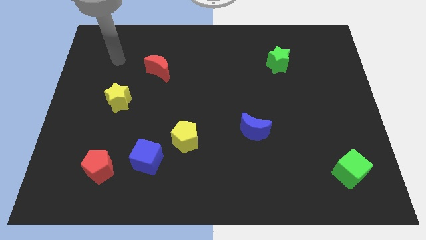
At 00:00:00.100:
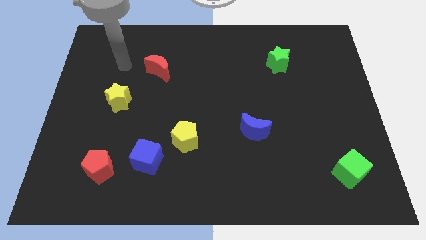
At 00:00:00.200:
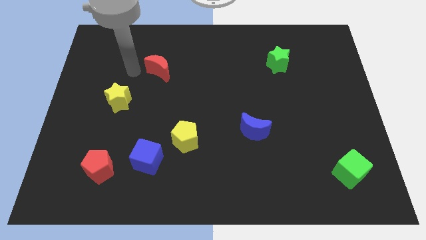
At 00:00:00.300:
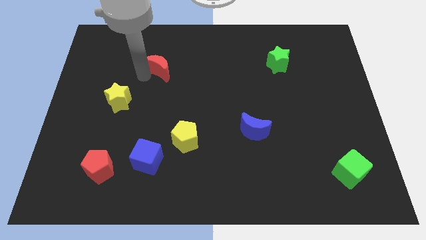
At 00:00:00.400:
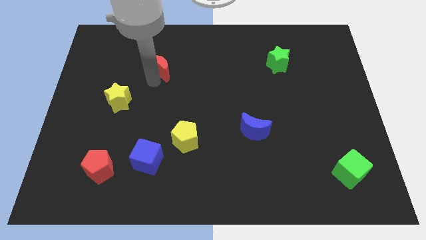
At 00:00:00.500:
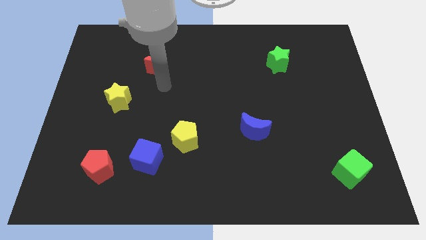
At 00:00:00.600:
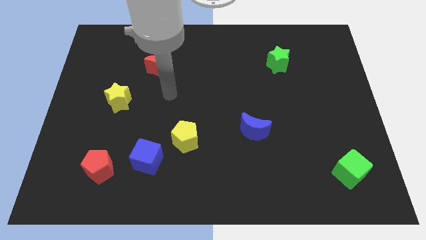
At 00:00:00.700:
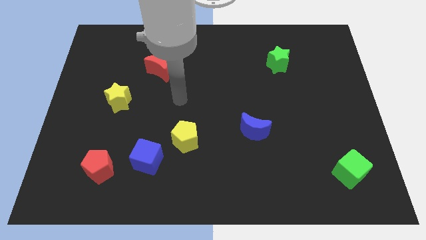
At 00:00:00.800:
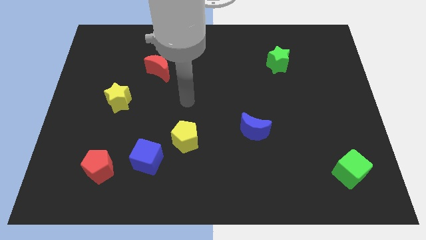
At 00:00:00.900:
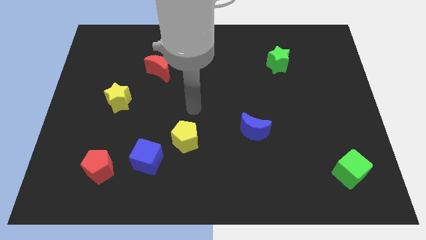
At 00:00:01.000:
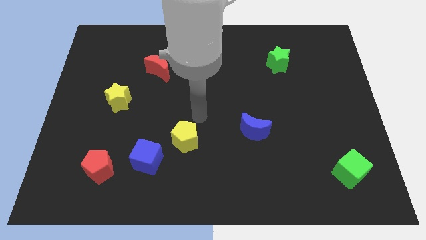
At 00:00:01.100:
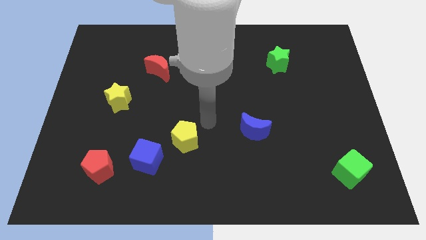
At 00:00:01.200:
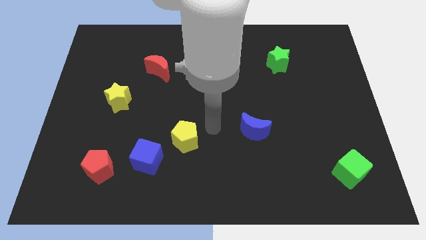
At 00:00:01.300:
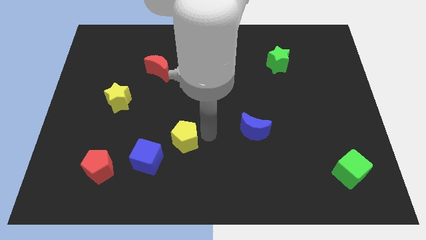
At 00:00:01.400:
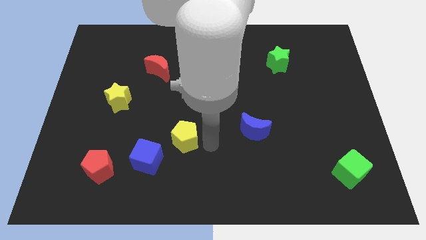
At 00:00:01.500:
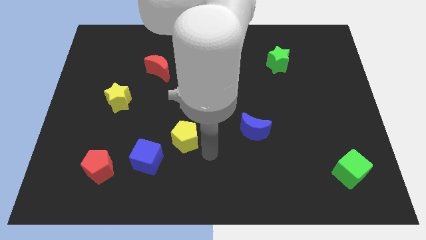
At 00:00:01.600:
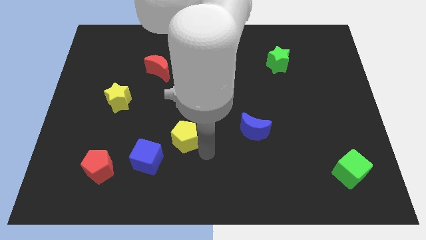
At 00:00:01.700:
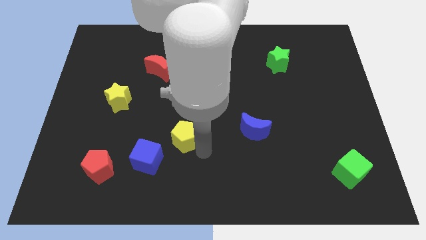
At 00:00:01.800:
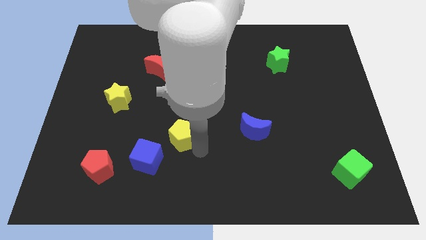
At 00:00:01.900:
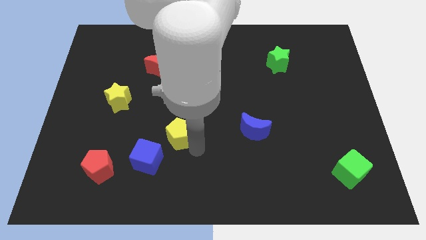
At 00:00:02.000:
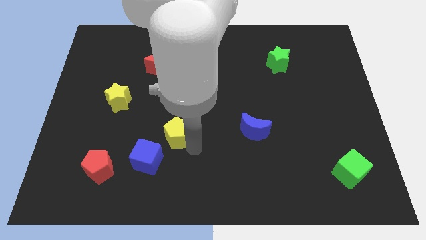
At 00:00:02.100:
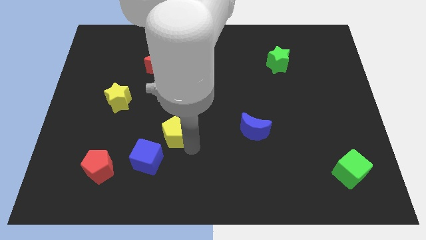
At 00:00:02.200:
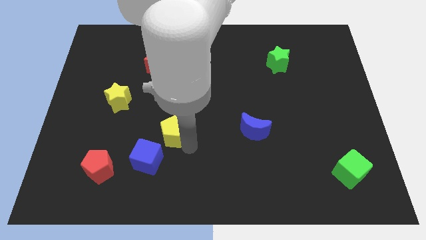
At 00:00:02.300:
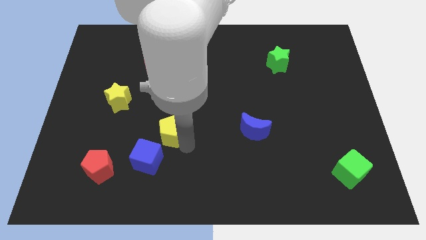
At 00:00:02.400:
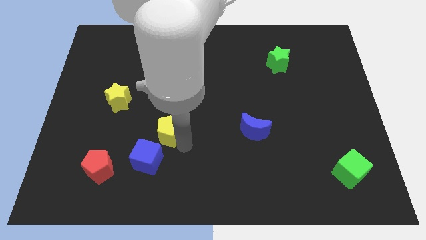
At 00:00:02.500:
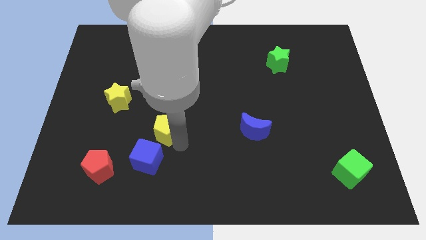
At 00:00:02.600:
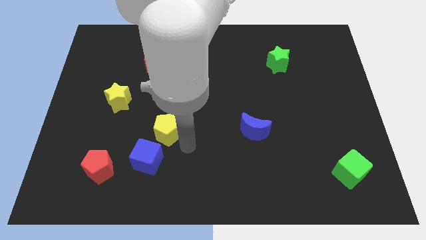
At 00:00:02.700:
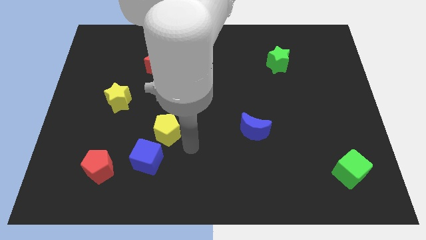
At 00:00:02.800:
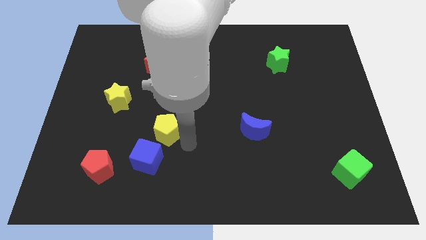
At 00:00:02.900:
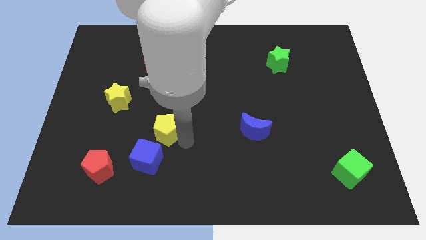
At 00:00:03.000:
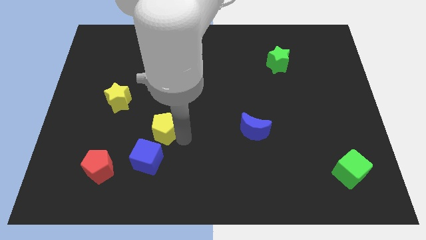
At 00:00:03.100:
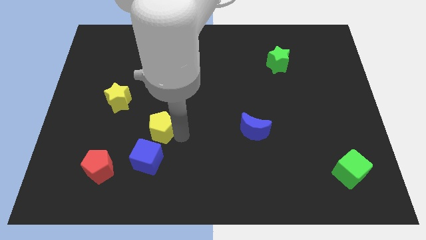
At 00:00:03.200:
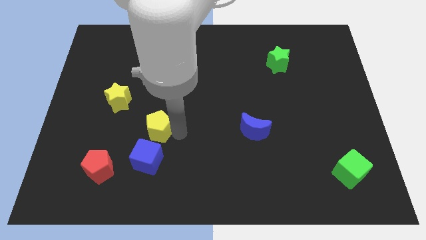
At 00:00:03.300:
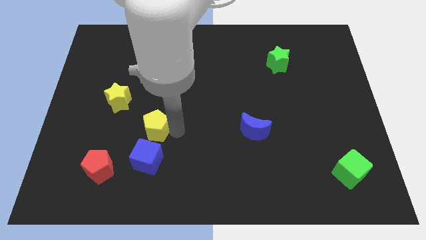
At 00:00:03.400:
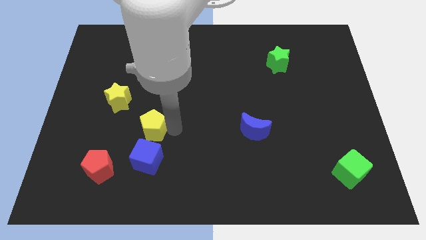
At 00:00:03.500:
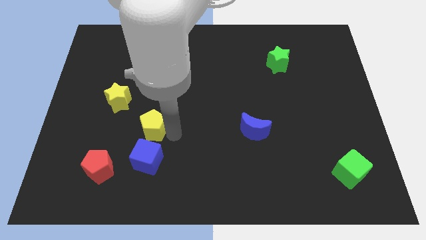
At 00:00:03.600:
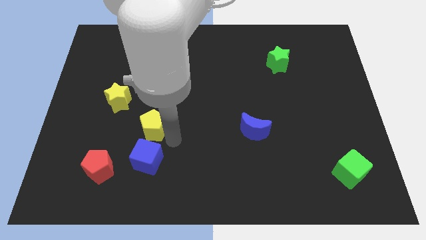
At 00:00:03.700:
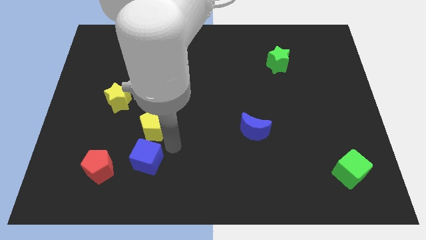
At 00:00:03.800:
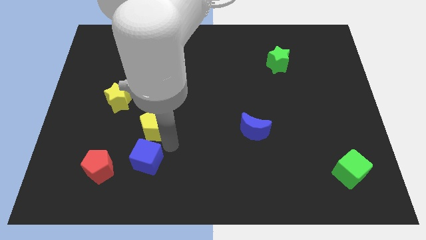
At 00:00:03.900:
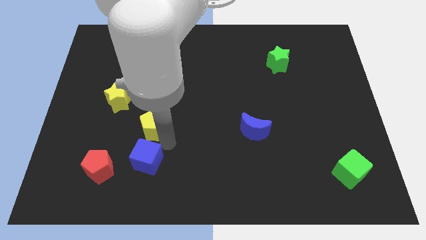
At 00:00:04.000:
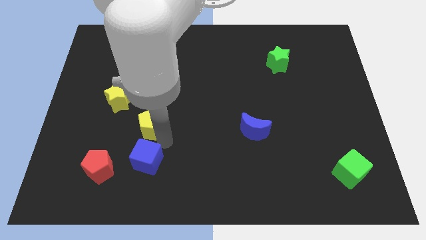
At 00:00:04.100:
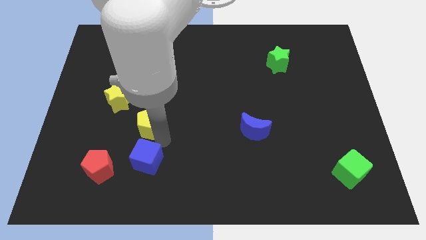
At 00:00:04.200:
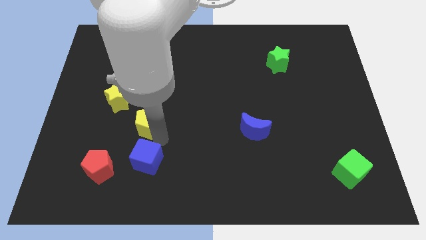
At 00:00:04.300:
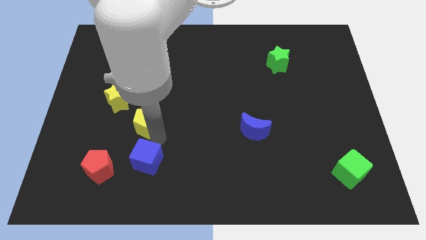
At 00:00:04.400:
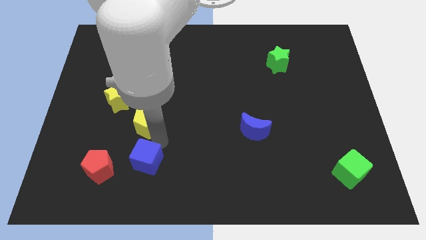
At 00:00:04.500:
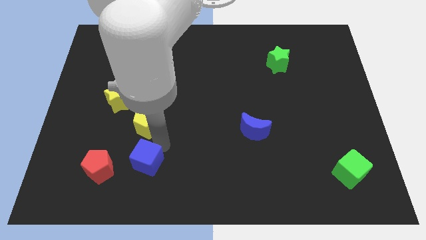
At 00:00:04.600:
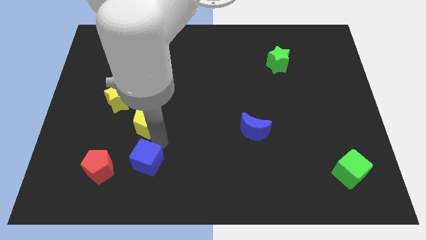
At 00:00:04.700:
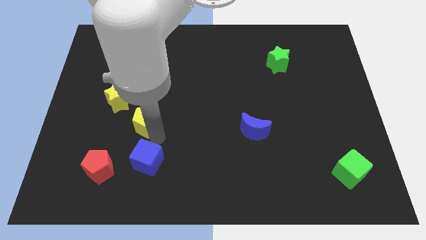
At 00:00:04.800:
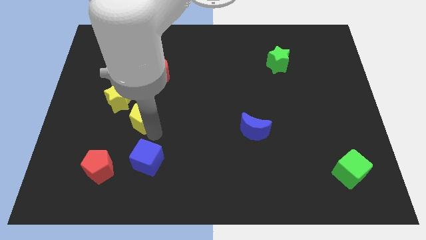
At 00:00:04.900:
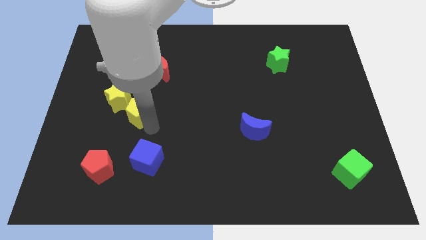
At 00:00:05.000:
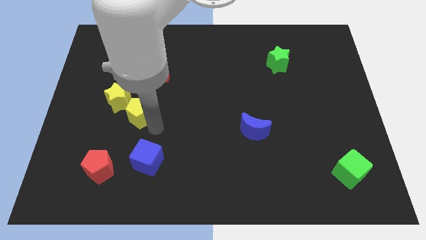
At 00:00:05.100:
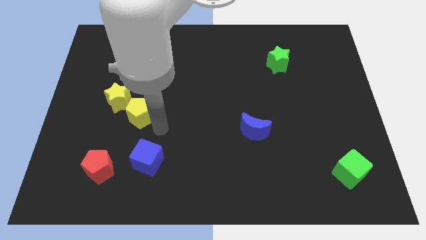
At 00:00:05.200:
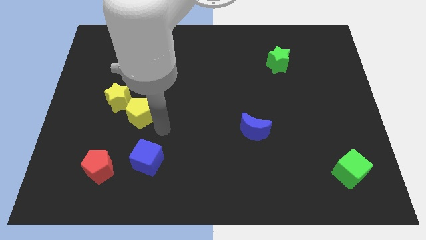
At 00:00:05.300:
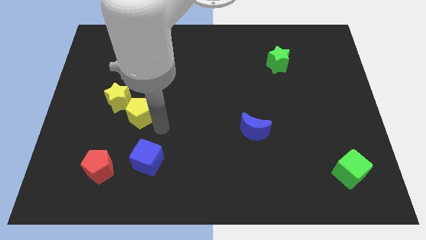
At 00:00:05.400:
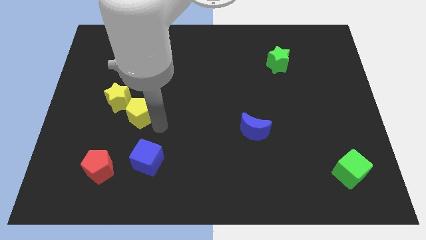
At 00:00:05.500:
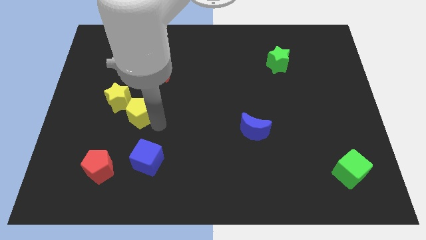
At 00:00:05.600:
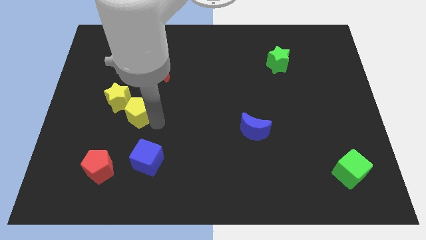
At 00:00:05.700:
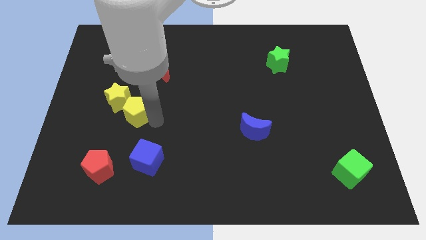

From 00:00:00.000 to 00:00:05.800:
move the yellow pentagon to the yellow star

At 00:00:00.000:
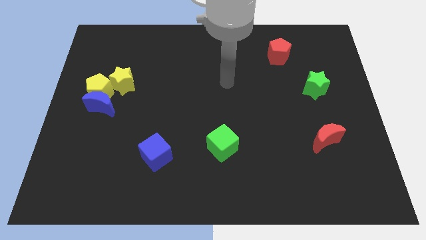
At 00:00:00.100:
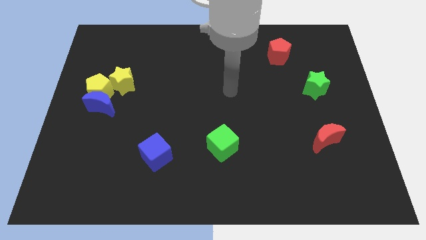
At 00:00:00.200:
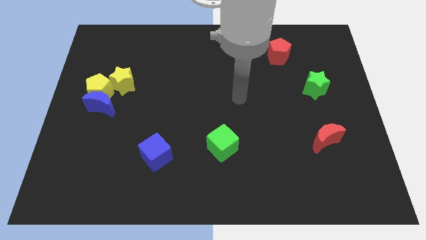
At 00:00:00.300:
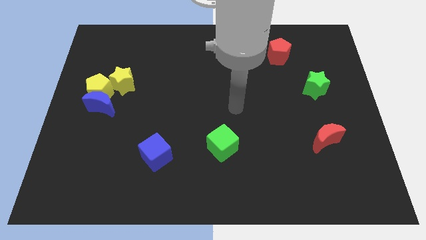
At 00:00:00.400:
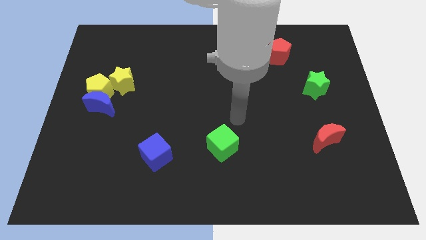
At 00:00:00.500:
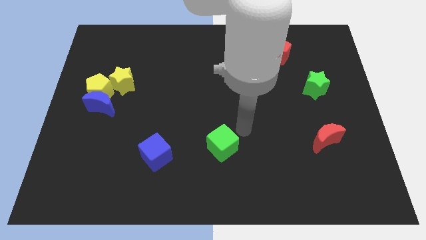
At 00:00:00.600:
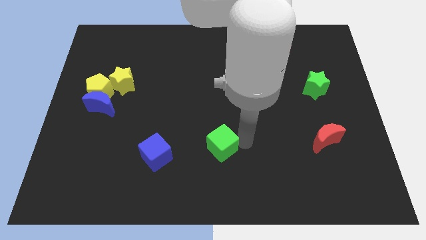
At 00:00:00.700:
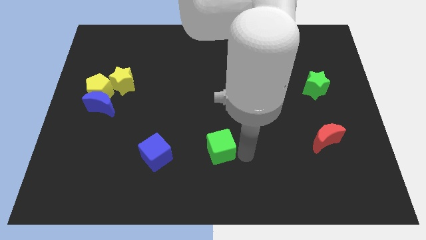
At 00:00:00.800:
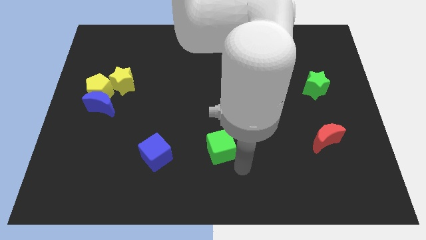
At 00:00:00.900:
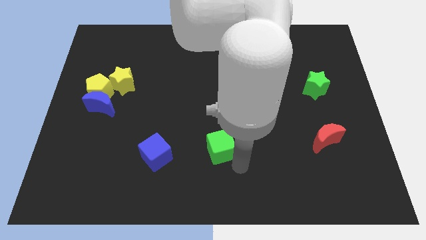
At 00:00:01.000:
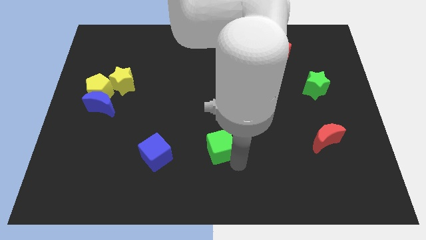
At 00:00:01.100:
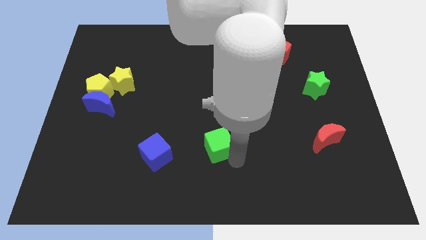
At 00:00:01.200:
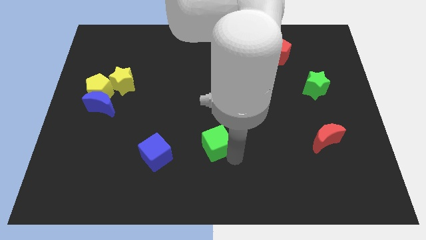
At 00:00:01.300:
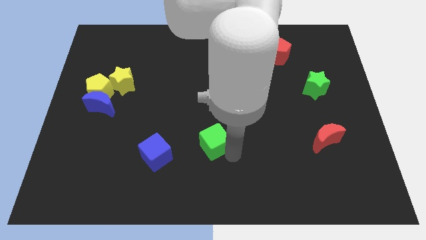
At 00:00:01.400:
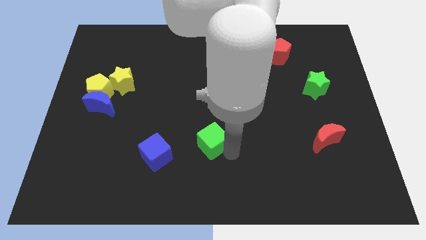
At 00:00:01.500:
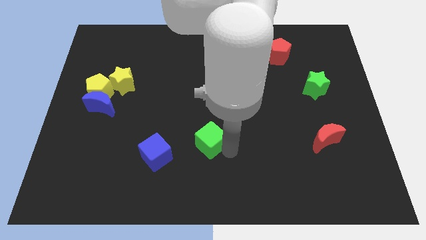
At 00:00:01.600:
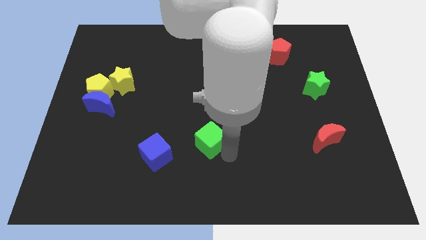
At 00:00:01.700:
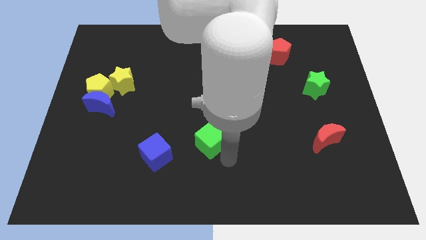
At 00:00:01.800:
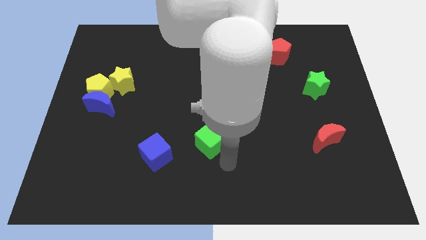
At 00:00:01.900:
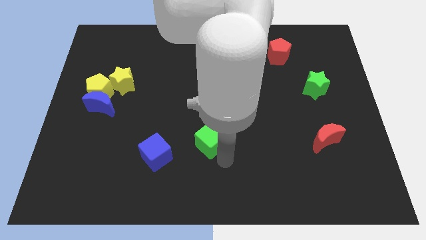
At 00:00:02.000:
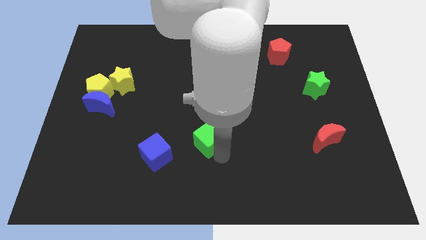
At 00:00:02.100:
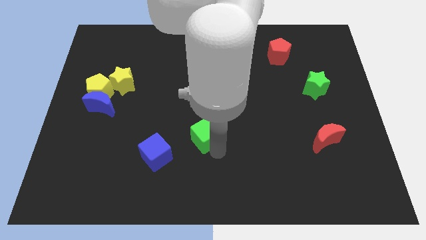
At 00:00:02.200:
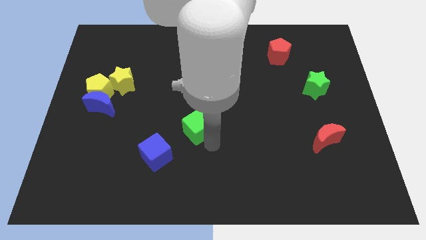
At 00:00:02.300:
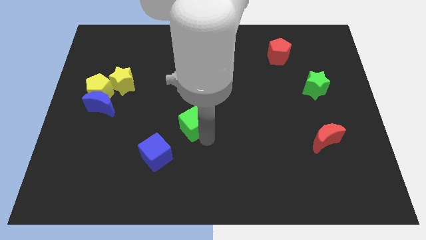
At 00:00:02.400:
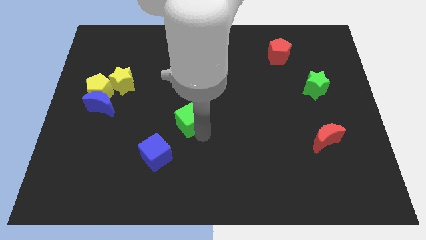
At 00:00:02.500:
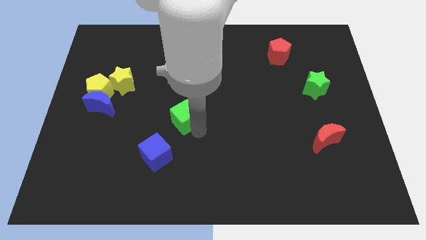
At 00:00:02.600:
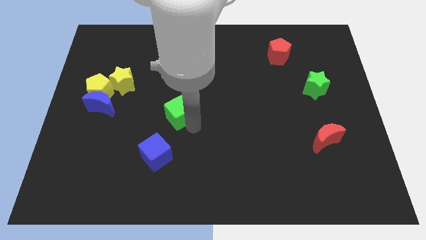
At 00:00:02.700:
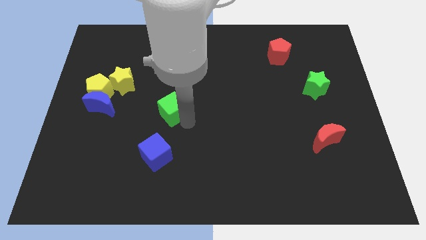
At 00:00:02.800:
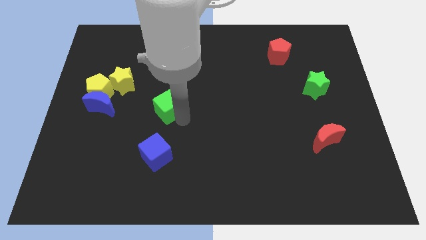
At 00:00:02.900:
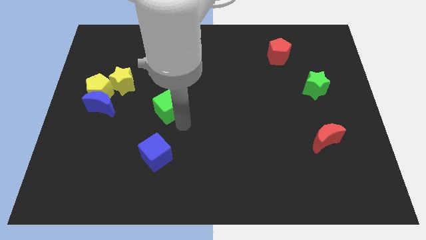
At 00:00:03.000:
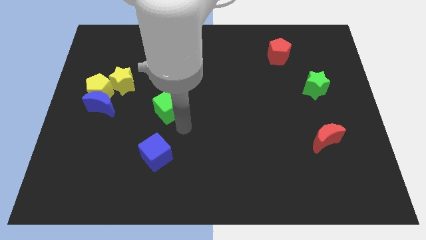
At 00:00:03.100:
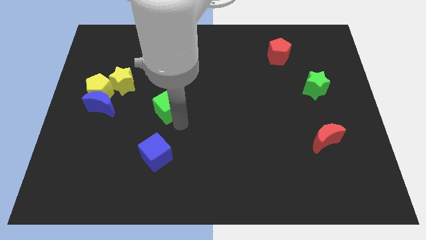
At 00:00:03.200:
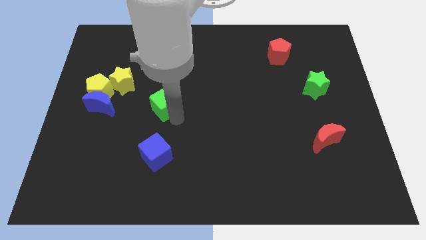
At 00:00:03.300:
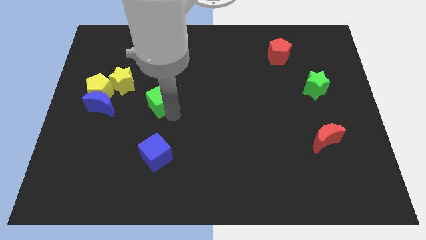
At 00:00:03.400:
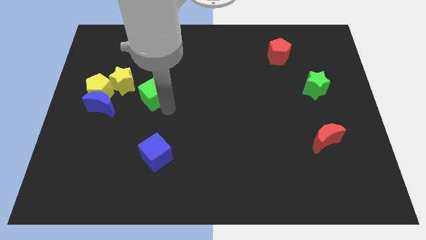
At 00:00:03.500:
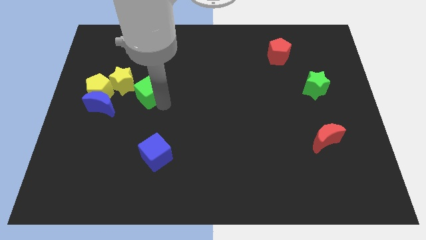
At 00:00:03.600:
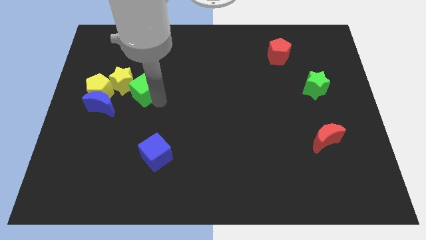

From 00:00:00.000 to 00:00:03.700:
push the green cube next to the yellow star
